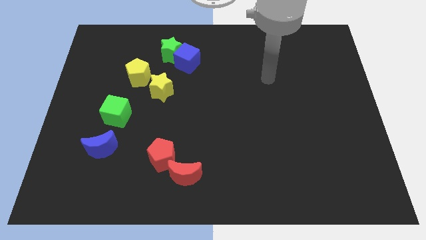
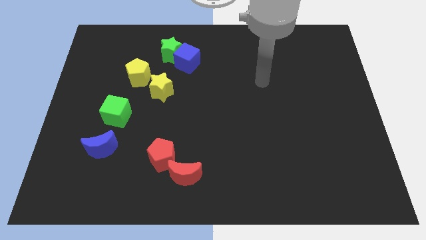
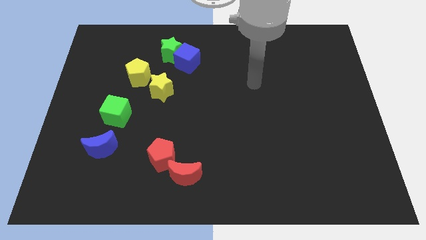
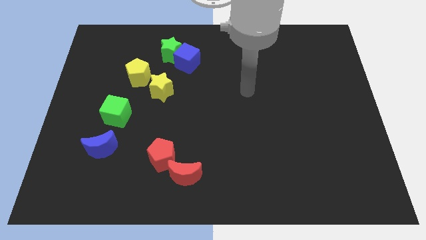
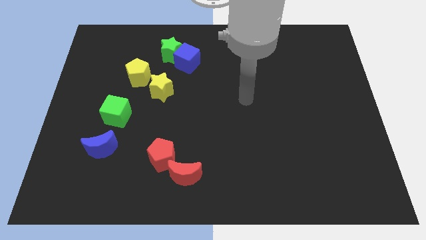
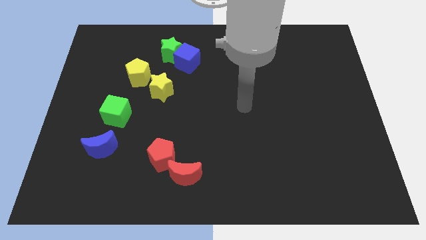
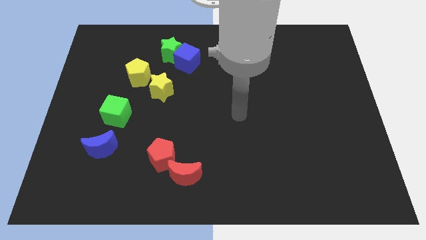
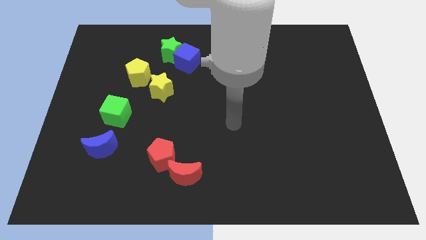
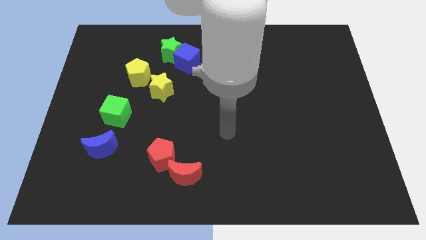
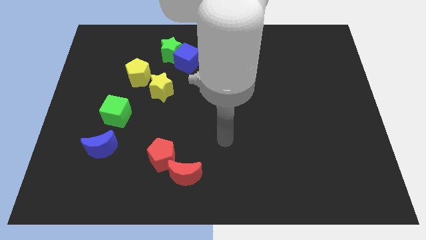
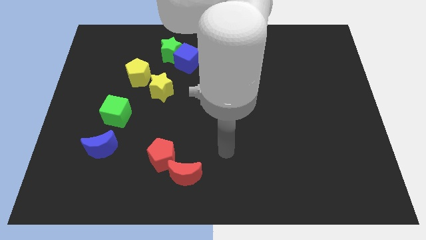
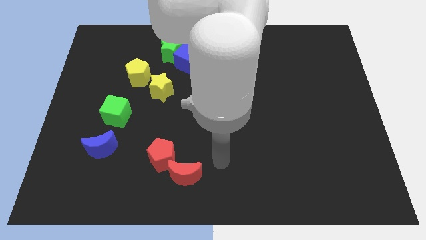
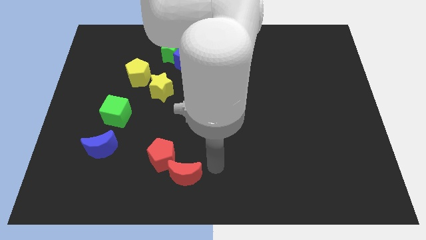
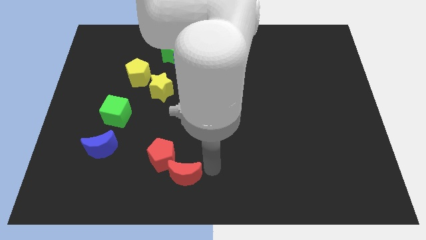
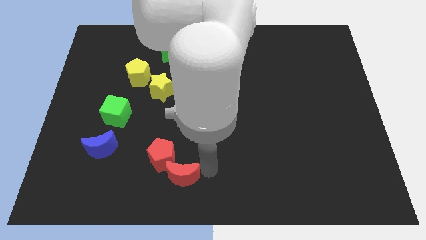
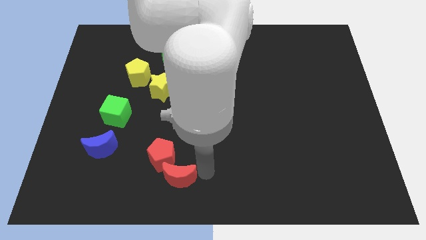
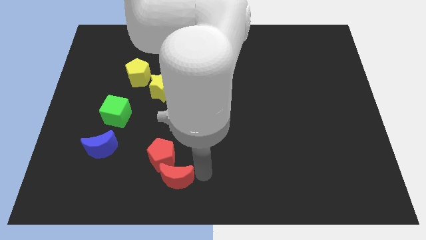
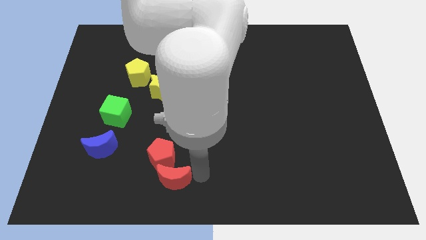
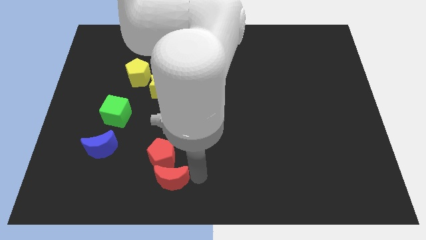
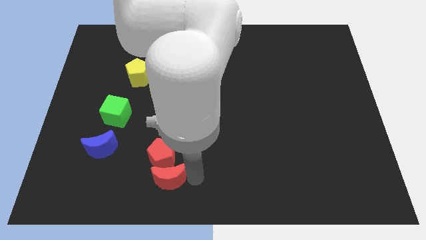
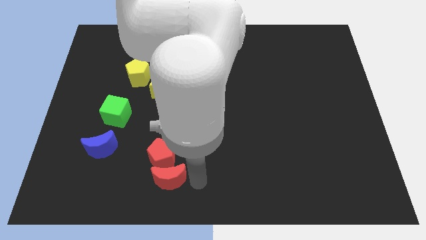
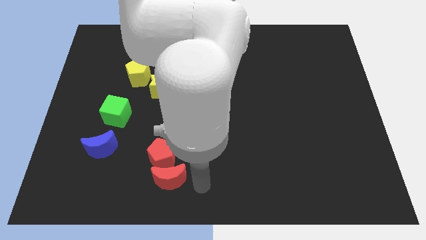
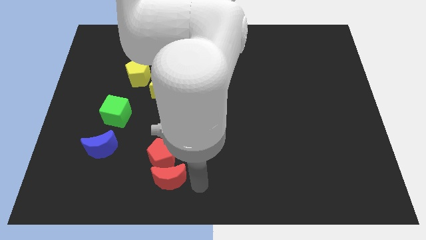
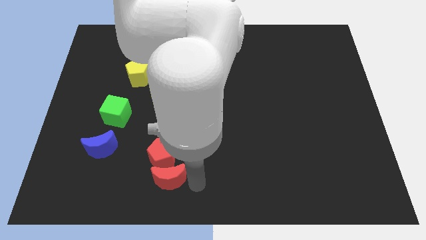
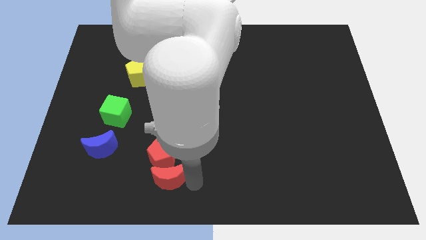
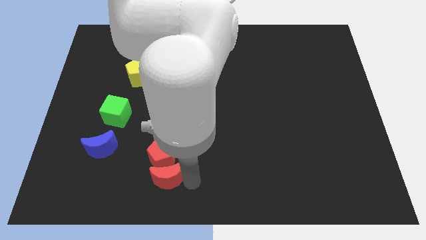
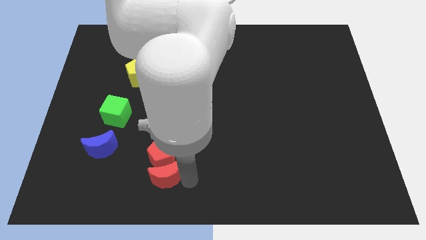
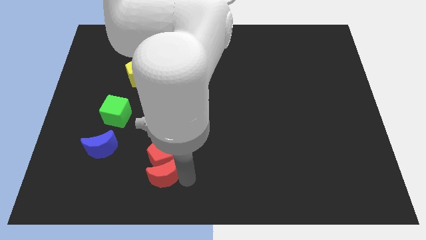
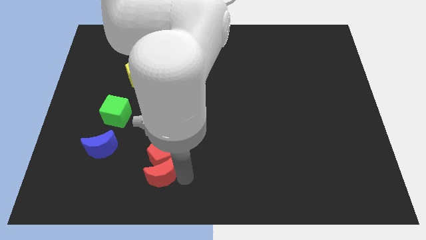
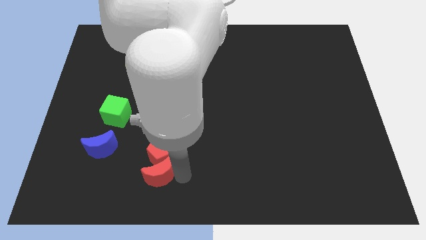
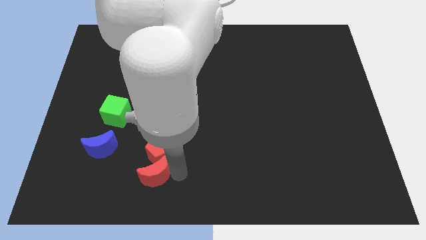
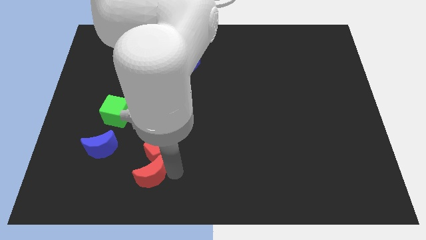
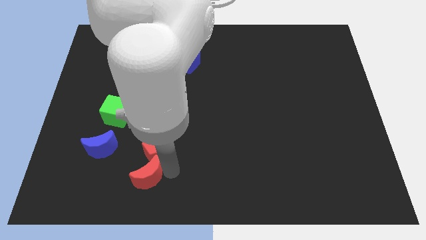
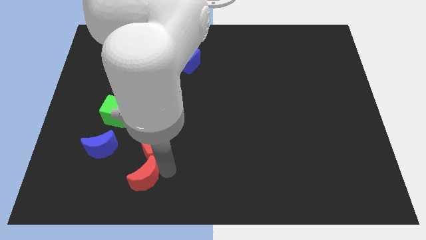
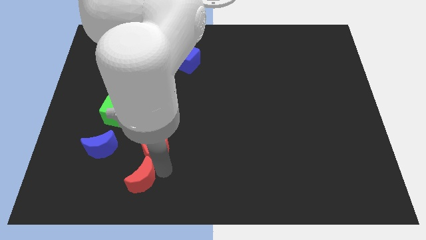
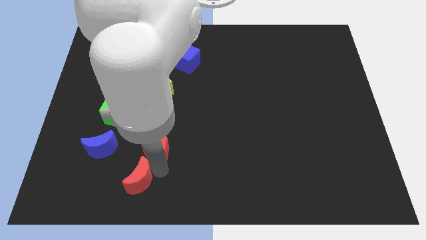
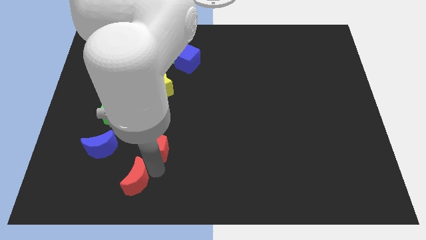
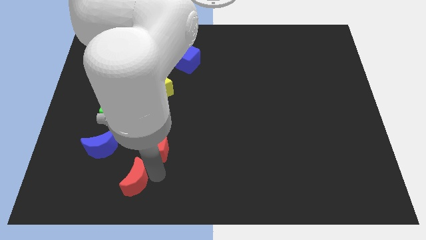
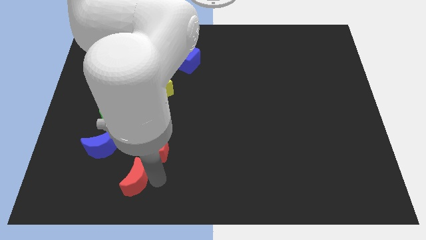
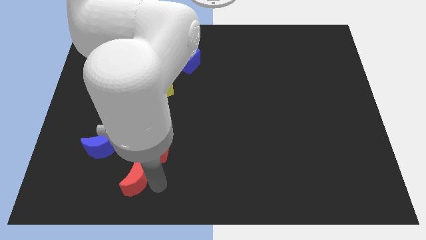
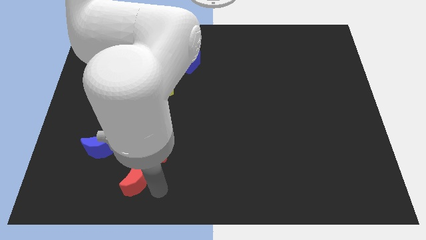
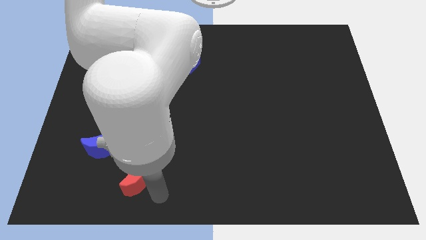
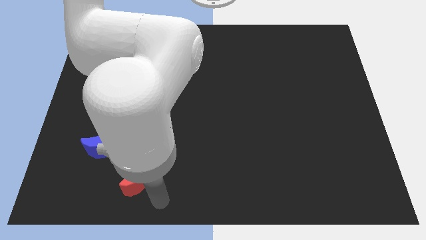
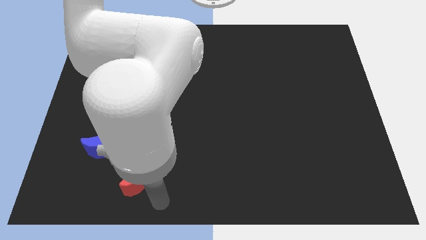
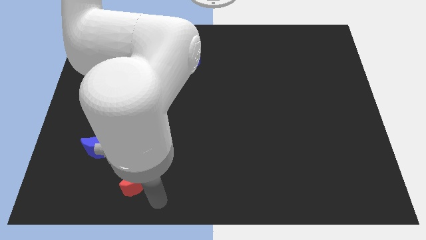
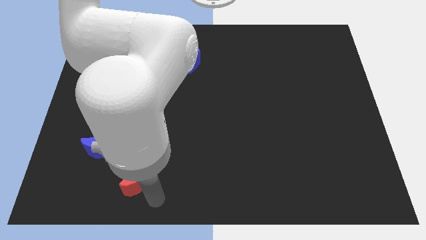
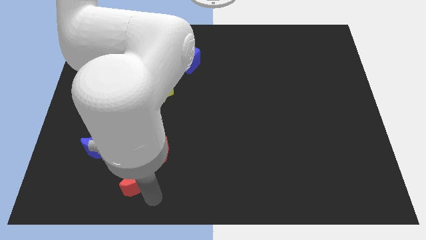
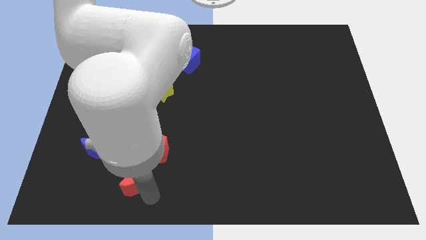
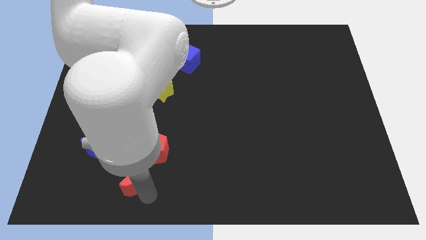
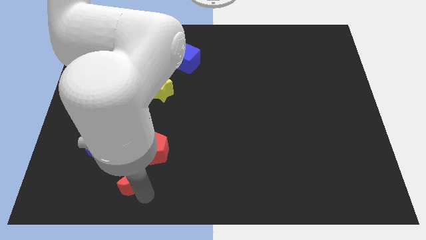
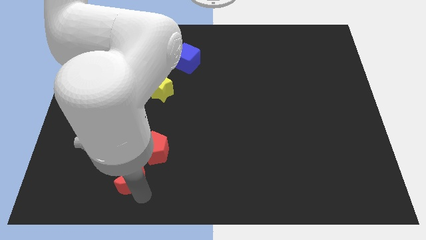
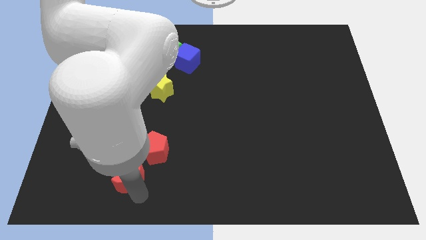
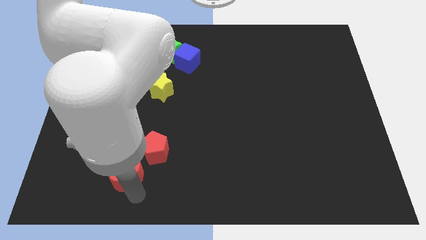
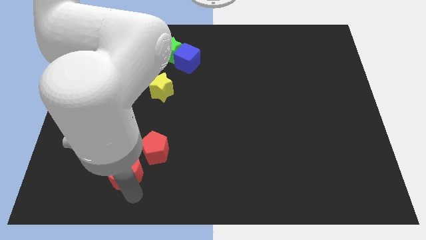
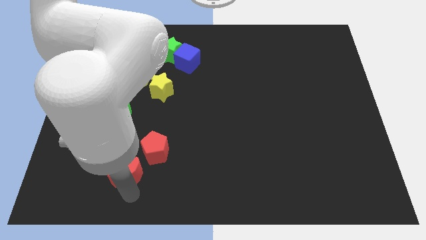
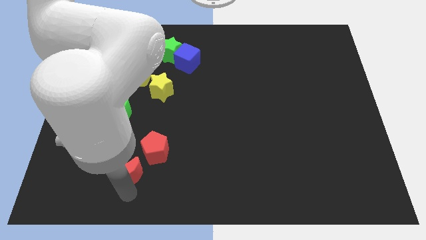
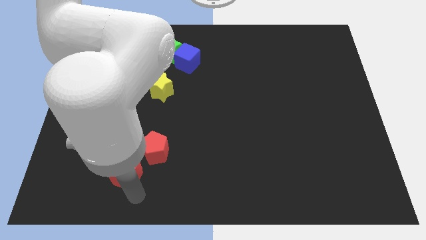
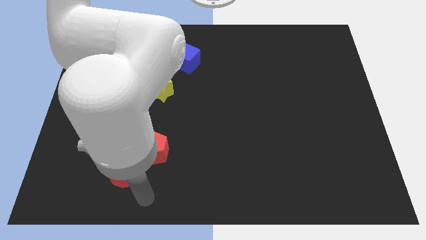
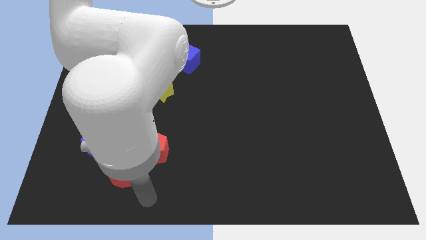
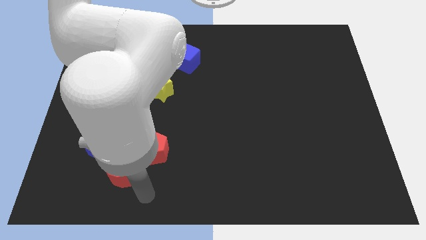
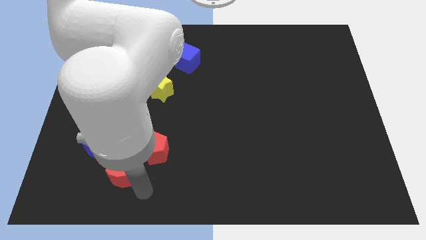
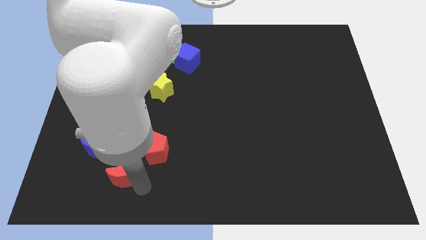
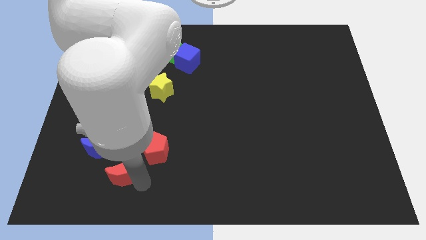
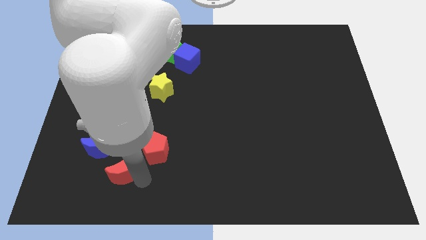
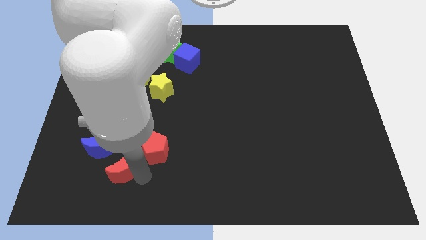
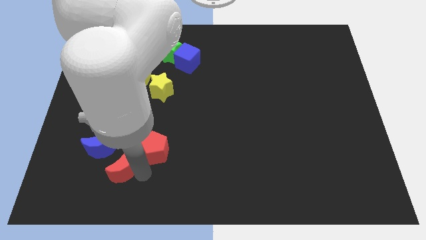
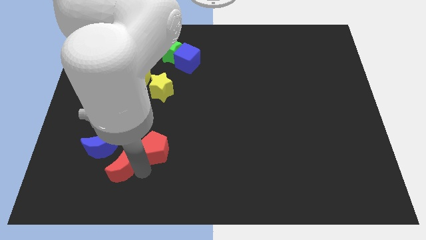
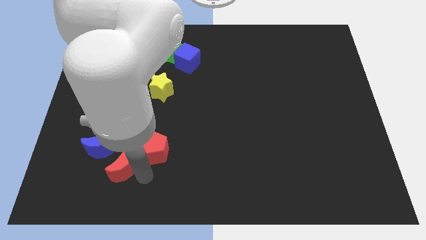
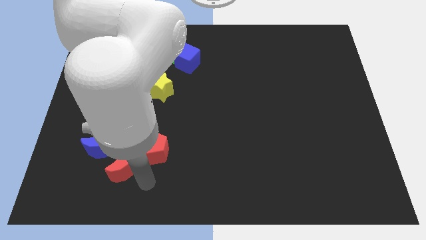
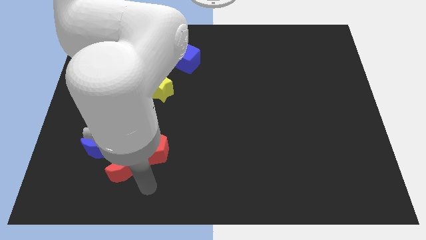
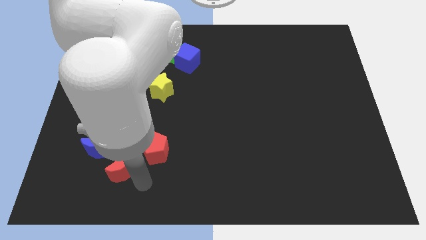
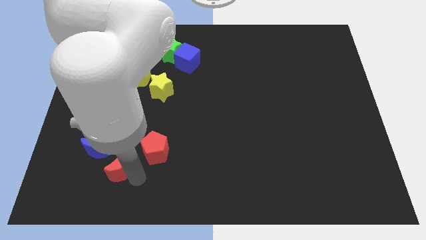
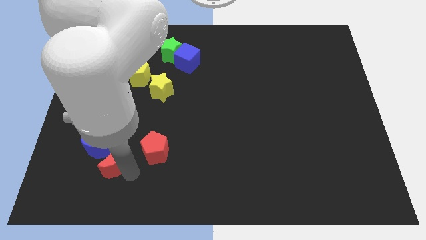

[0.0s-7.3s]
move the red moon towards the blue moon
